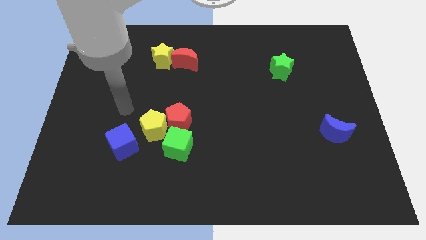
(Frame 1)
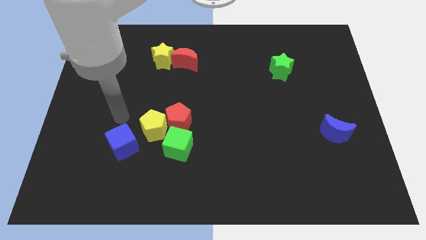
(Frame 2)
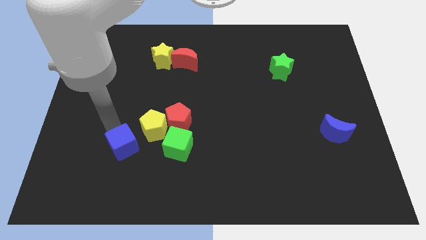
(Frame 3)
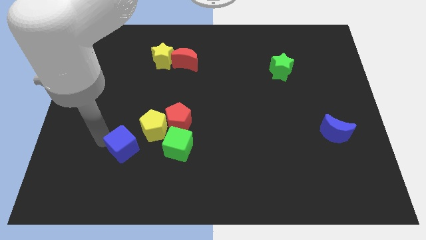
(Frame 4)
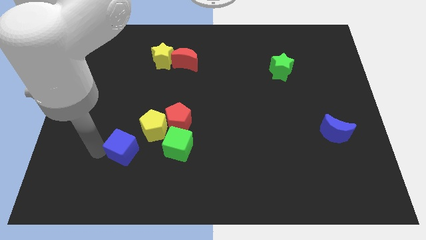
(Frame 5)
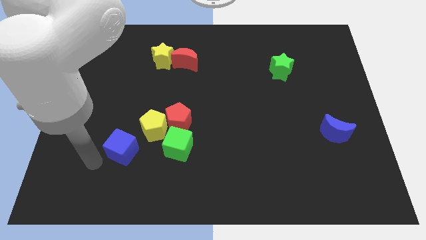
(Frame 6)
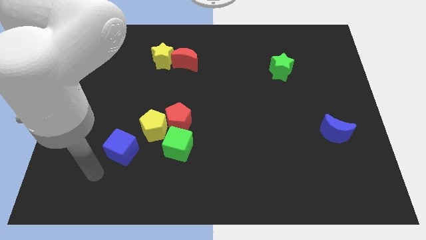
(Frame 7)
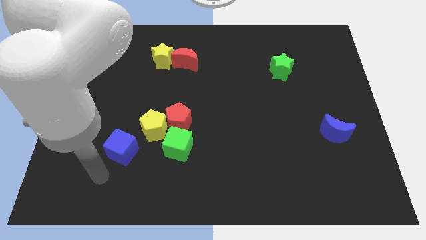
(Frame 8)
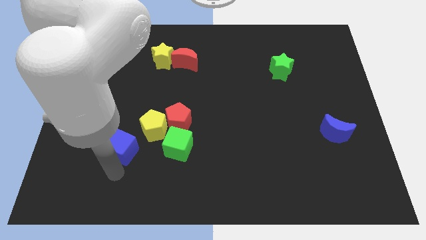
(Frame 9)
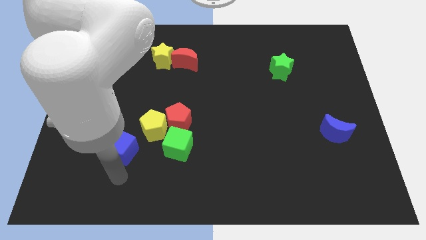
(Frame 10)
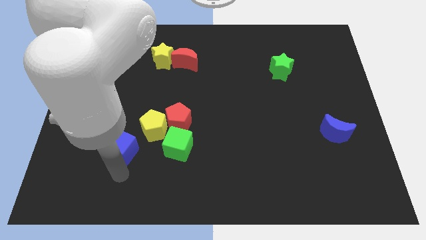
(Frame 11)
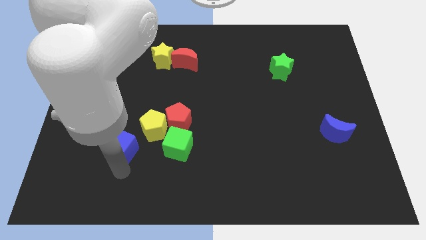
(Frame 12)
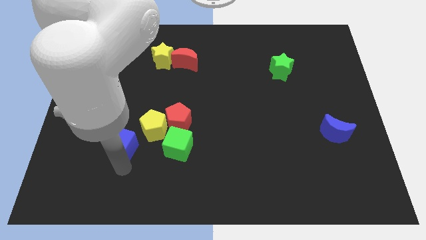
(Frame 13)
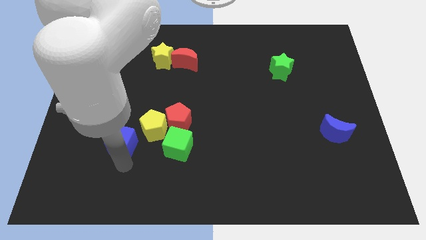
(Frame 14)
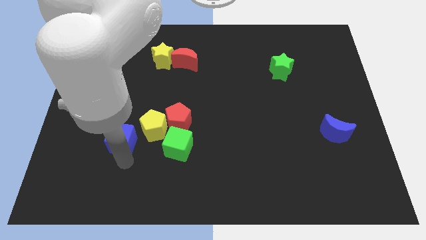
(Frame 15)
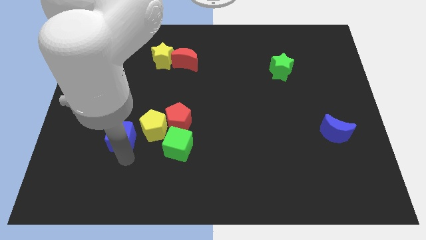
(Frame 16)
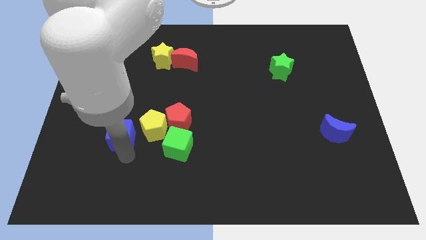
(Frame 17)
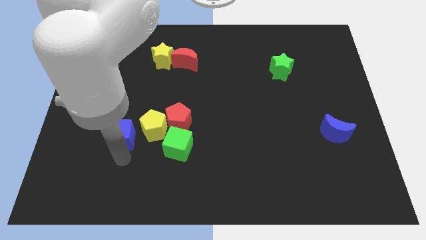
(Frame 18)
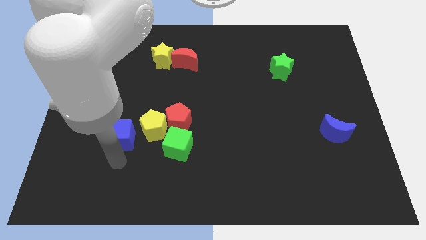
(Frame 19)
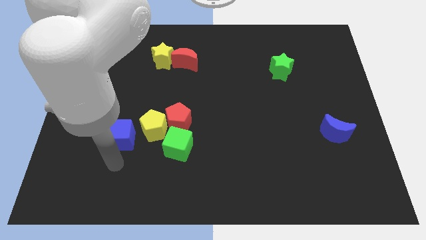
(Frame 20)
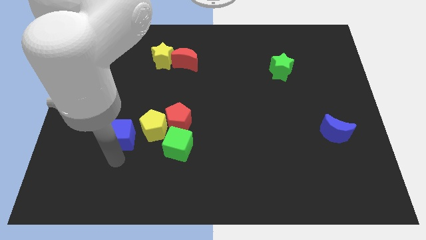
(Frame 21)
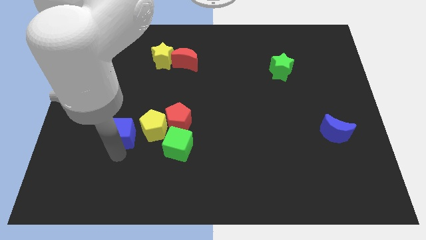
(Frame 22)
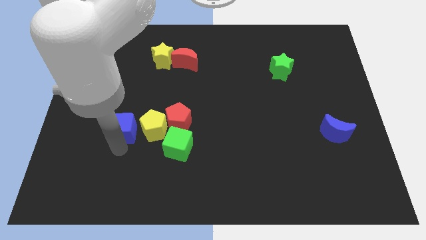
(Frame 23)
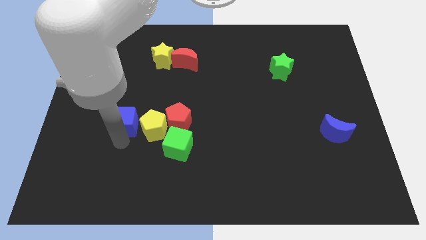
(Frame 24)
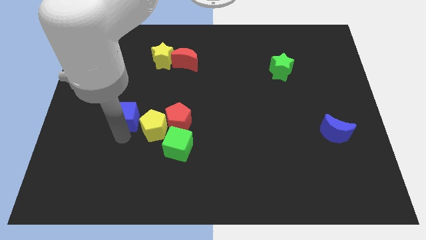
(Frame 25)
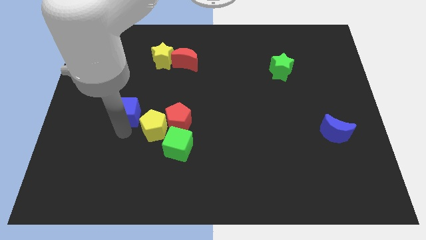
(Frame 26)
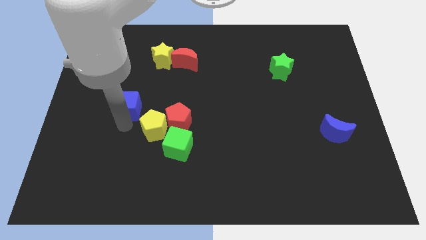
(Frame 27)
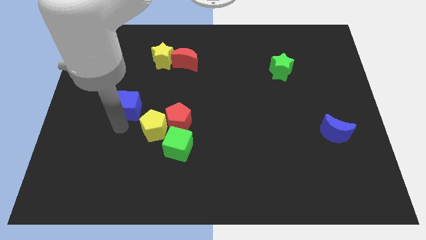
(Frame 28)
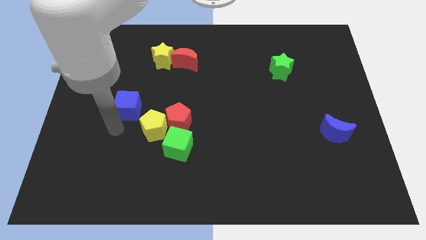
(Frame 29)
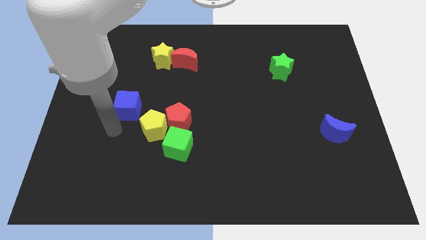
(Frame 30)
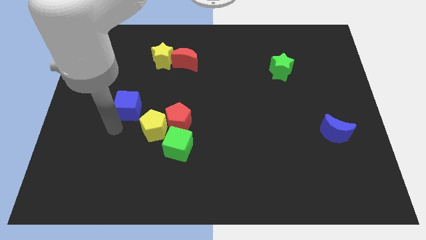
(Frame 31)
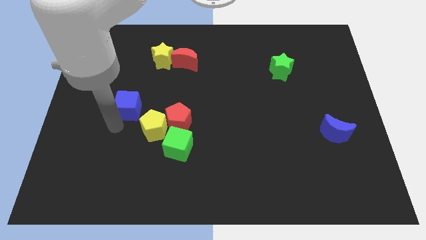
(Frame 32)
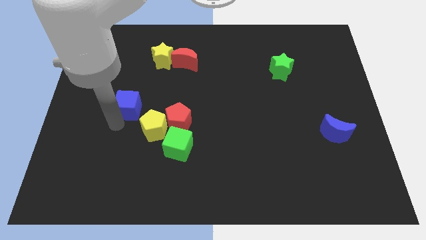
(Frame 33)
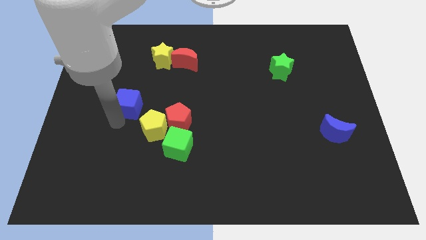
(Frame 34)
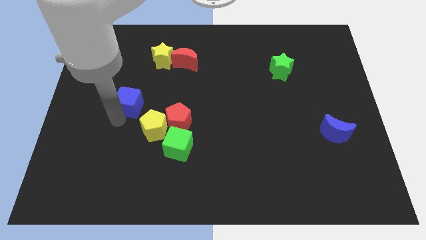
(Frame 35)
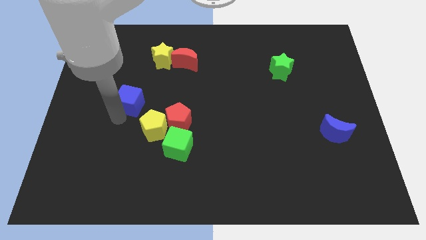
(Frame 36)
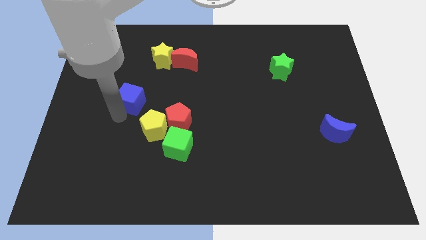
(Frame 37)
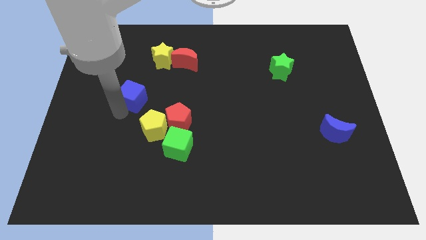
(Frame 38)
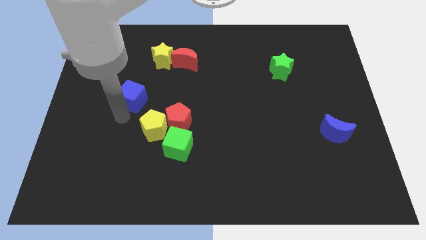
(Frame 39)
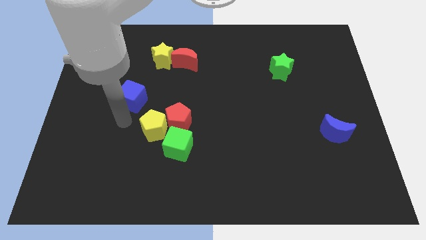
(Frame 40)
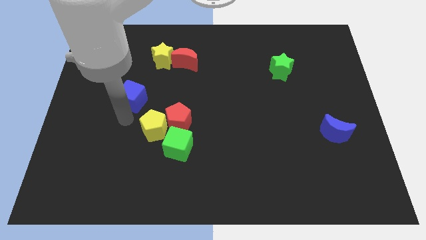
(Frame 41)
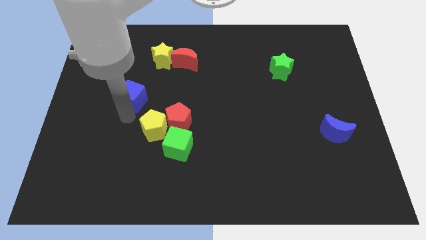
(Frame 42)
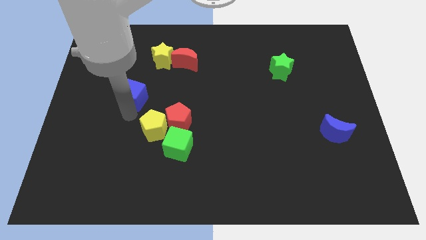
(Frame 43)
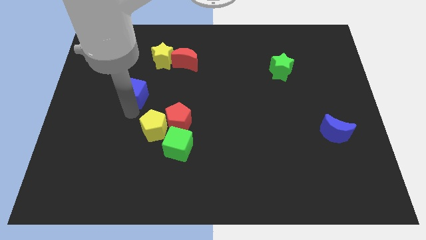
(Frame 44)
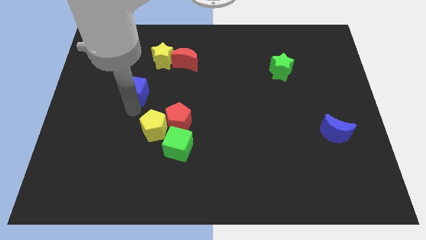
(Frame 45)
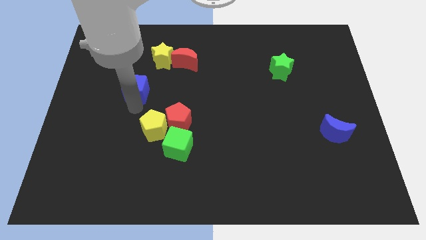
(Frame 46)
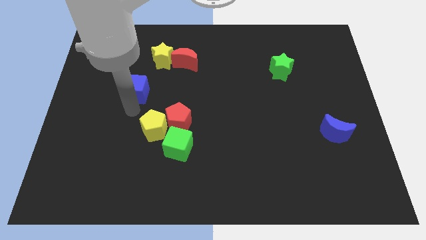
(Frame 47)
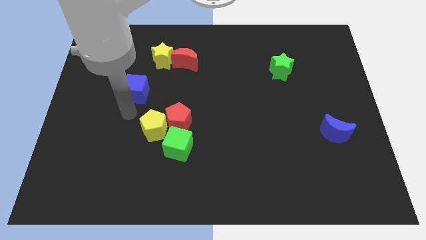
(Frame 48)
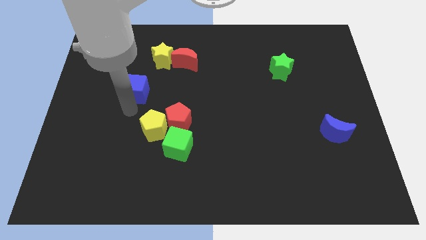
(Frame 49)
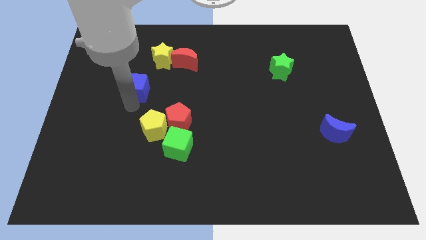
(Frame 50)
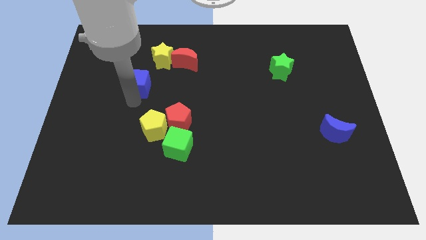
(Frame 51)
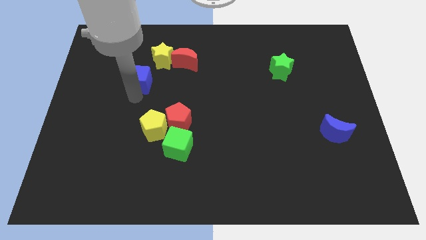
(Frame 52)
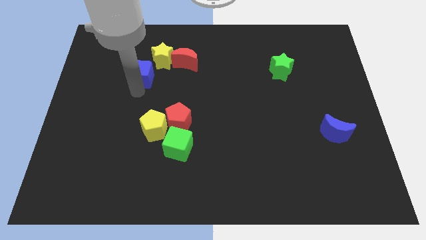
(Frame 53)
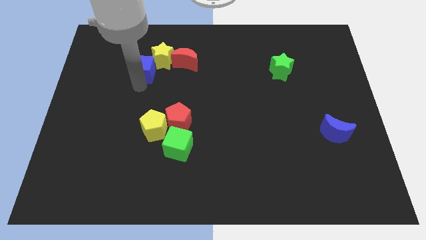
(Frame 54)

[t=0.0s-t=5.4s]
put the blue cube to the left of the red moon
